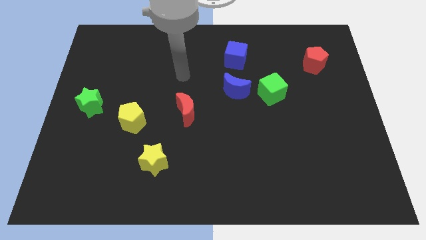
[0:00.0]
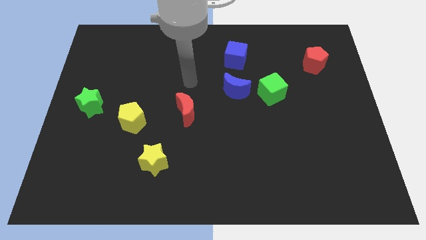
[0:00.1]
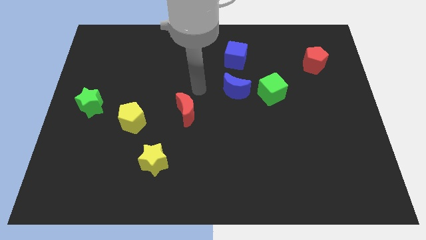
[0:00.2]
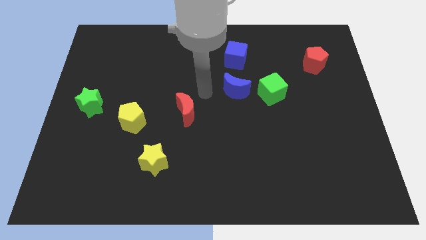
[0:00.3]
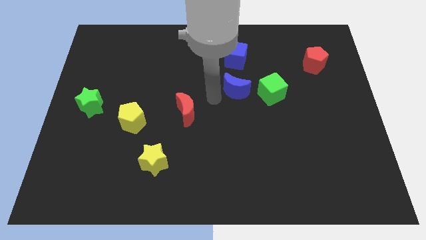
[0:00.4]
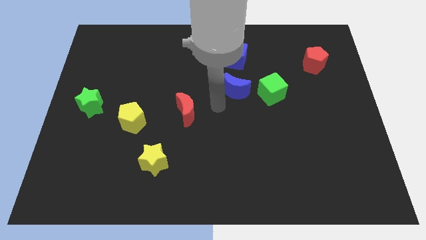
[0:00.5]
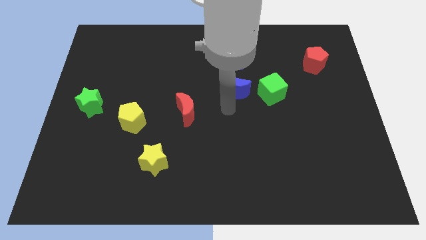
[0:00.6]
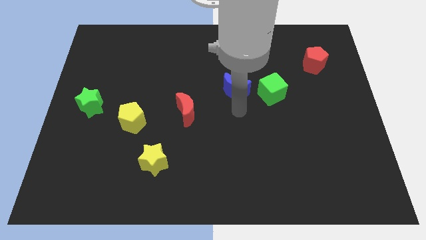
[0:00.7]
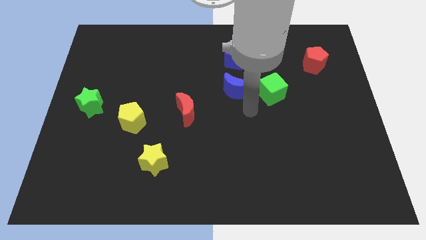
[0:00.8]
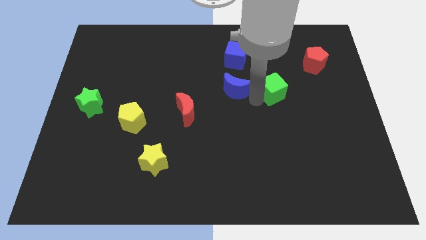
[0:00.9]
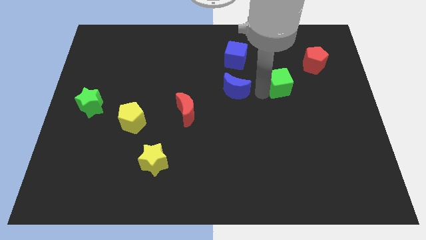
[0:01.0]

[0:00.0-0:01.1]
separate the blue moon from the green cube

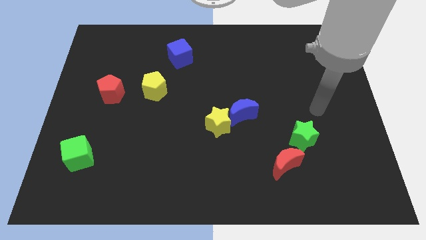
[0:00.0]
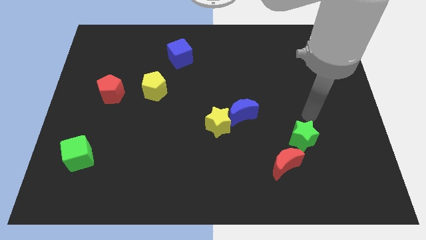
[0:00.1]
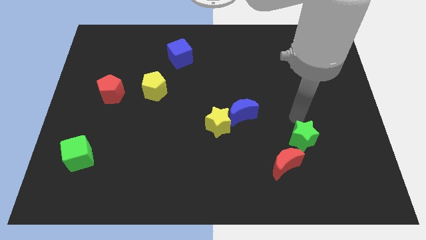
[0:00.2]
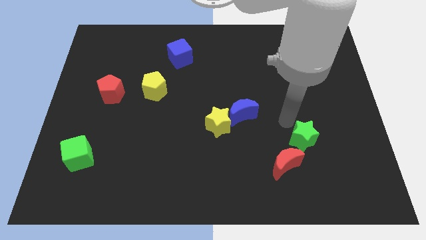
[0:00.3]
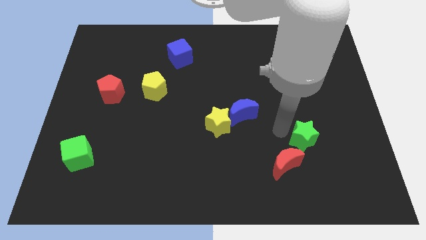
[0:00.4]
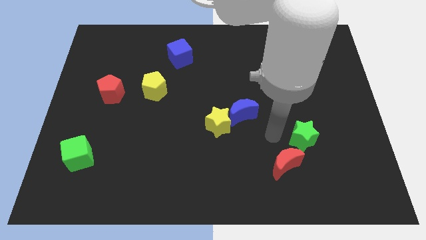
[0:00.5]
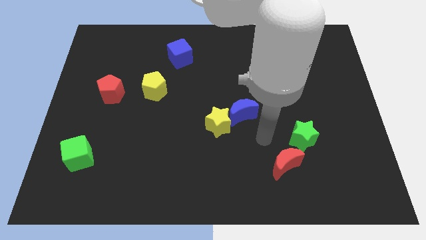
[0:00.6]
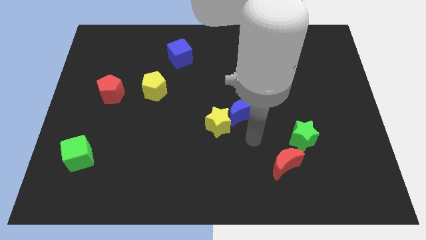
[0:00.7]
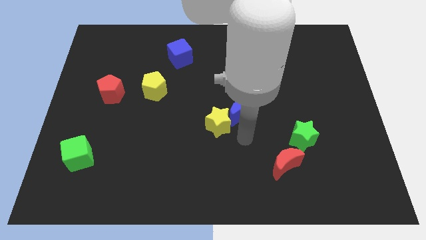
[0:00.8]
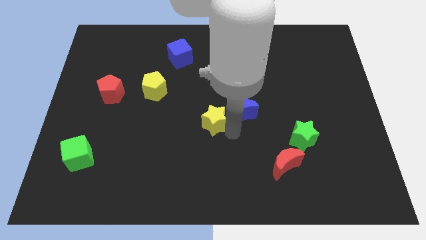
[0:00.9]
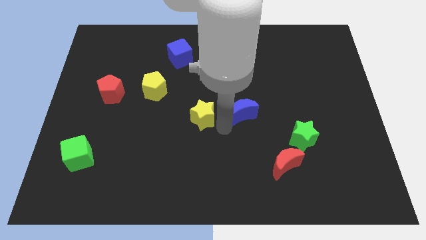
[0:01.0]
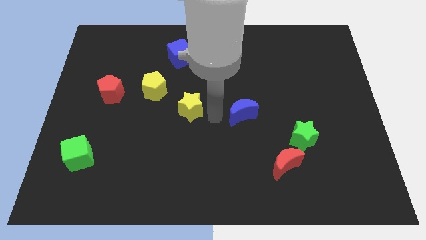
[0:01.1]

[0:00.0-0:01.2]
pull the blue moon apart from the yellow star

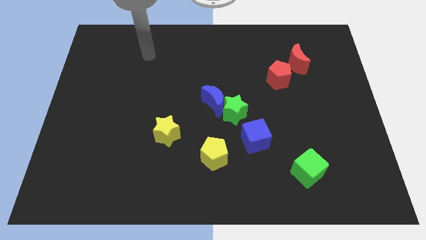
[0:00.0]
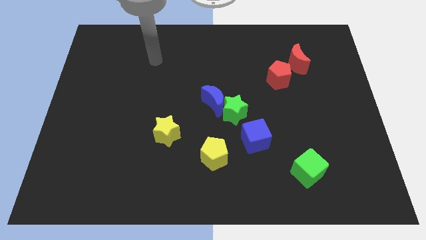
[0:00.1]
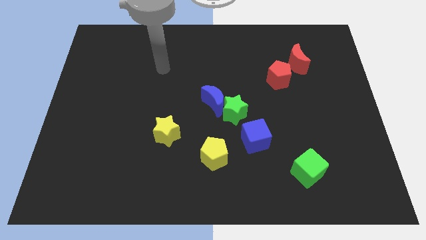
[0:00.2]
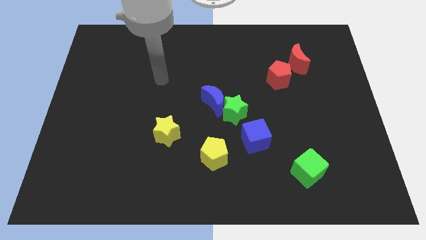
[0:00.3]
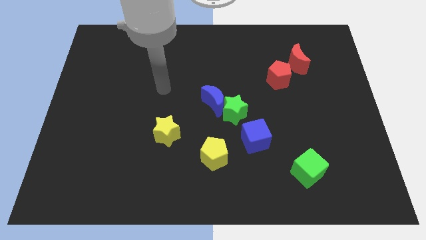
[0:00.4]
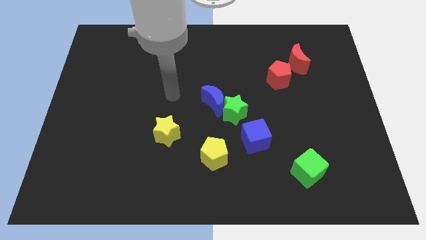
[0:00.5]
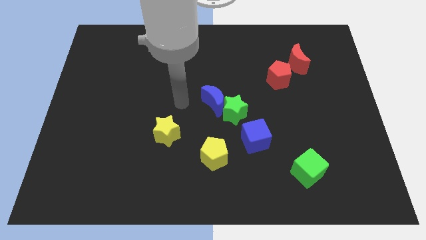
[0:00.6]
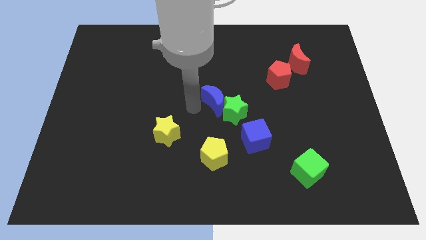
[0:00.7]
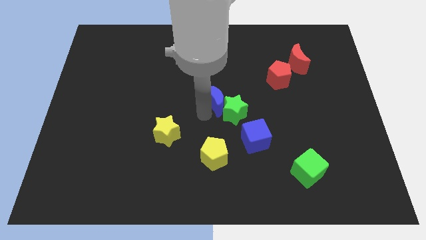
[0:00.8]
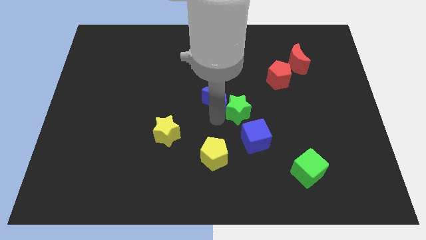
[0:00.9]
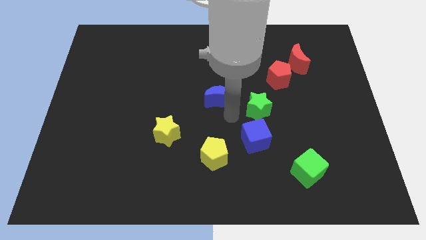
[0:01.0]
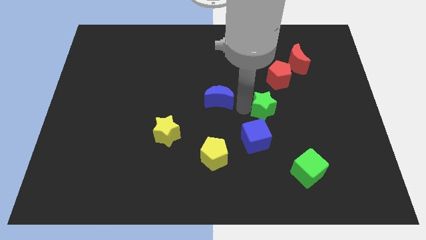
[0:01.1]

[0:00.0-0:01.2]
move the blue moon away from the green star

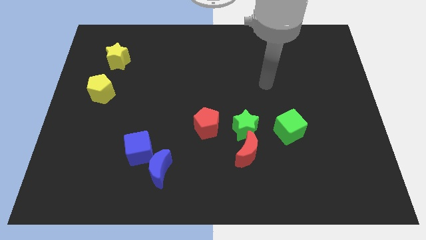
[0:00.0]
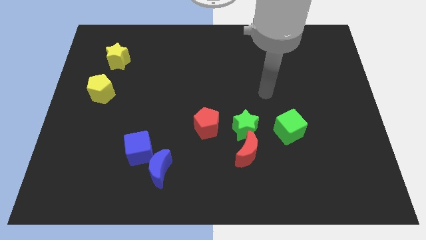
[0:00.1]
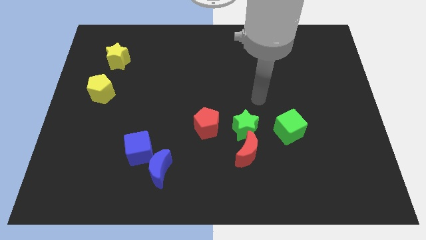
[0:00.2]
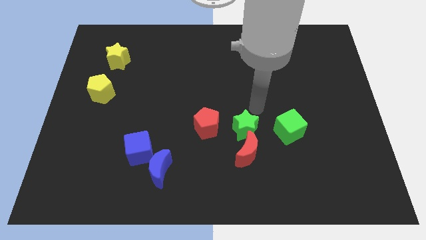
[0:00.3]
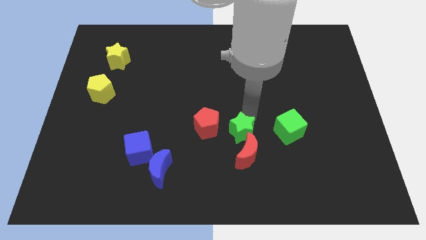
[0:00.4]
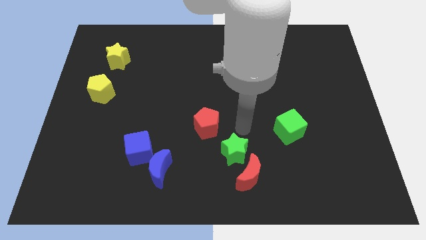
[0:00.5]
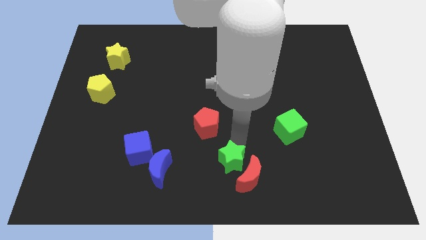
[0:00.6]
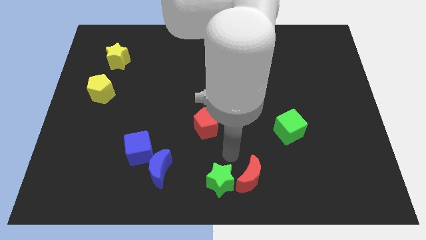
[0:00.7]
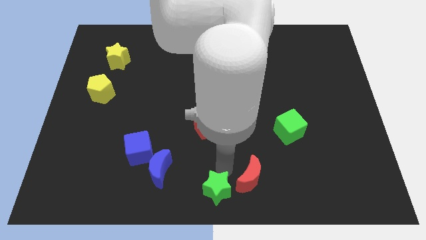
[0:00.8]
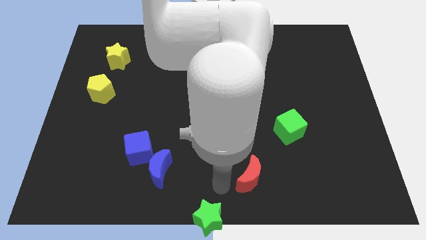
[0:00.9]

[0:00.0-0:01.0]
move the red moon away from the green star

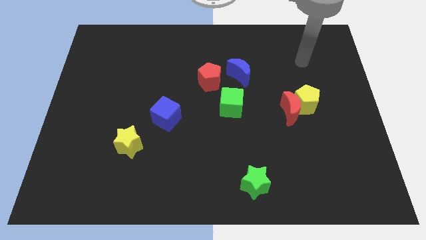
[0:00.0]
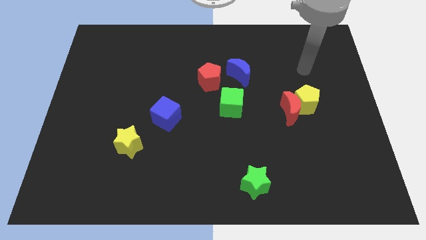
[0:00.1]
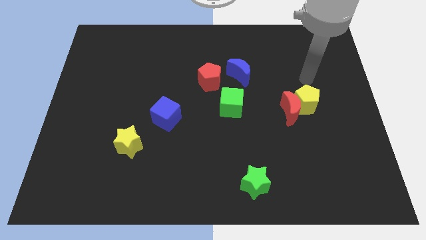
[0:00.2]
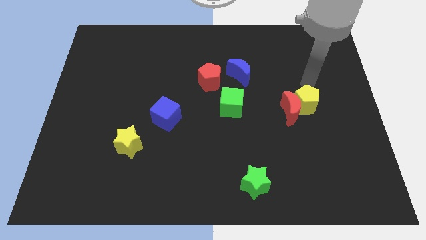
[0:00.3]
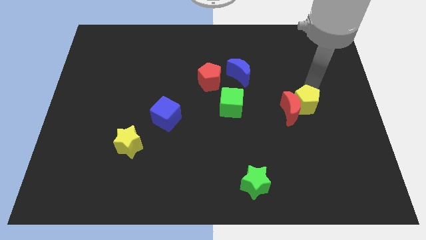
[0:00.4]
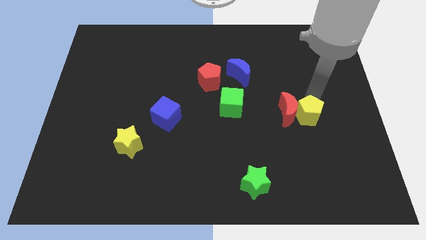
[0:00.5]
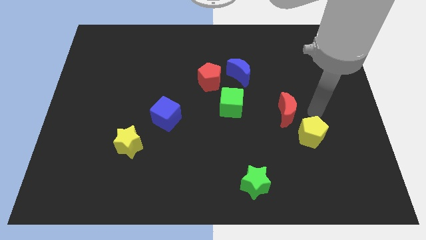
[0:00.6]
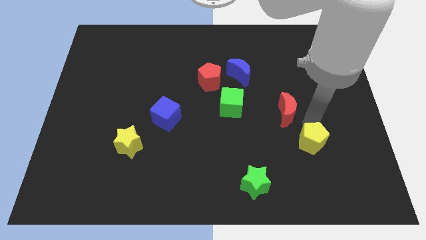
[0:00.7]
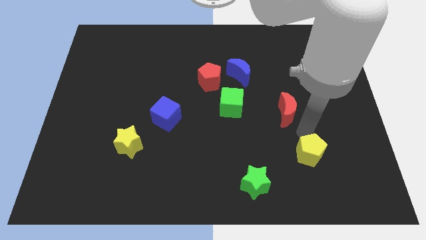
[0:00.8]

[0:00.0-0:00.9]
pull the red moon apart from the yellow pentagon

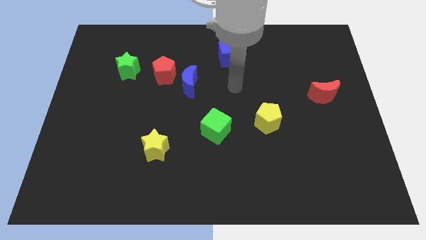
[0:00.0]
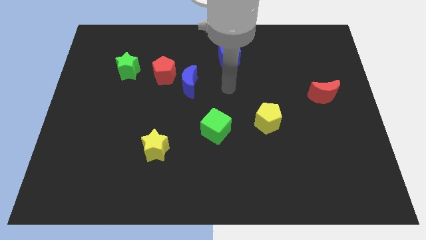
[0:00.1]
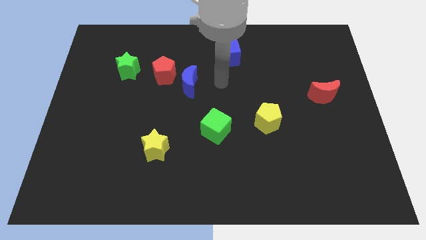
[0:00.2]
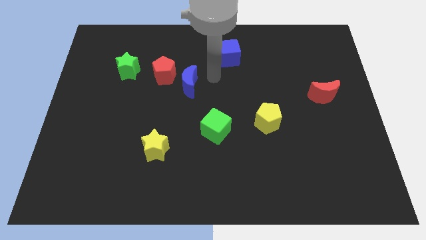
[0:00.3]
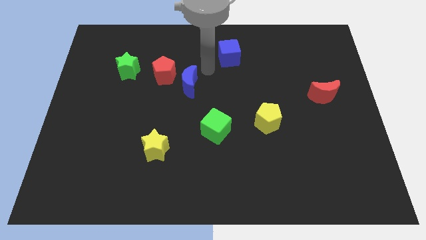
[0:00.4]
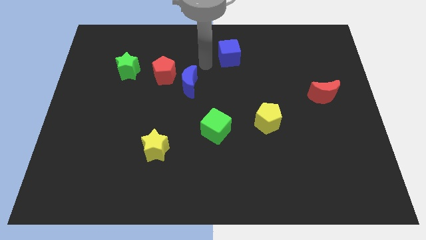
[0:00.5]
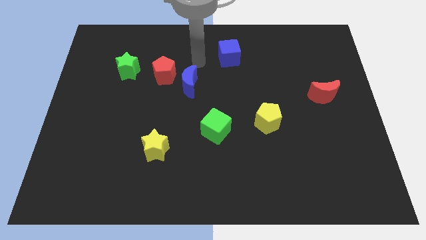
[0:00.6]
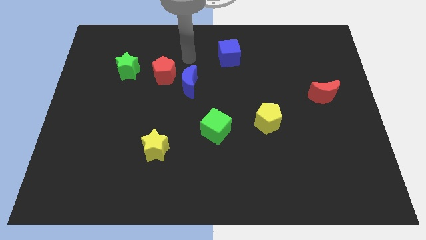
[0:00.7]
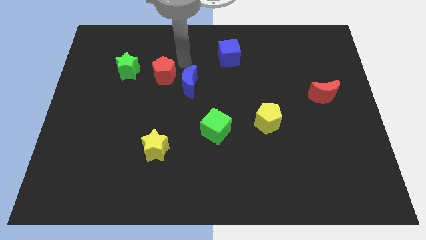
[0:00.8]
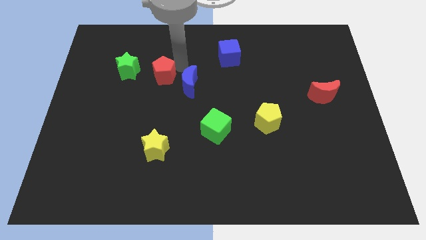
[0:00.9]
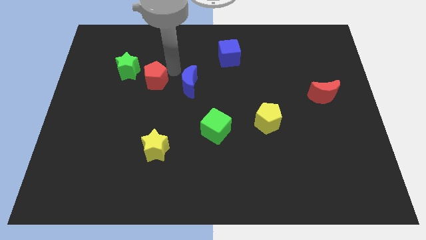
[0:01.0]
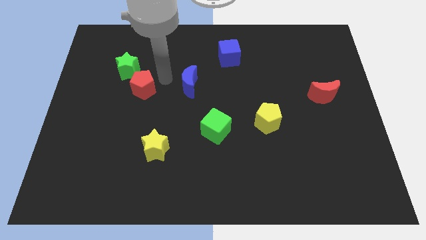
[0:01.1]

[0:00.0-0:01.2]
pull the blue moon apart from the red pentagon

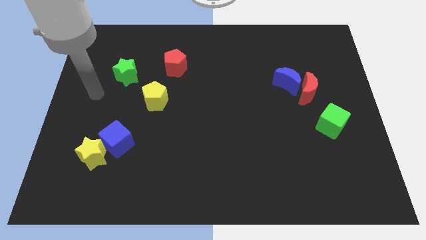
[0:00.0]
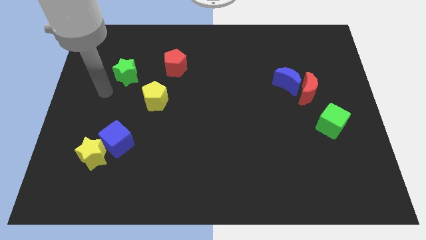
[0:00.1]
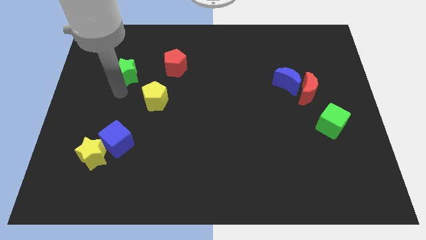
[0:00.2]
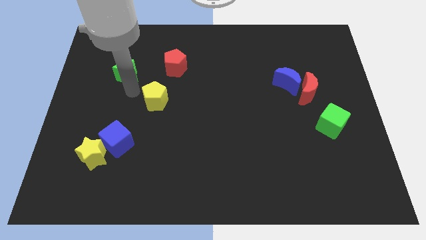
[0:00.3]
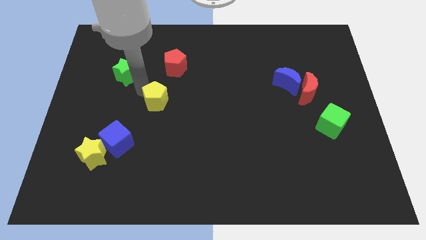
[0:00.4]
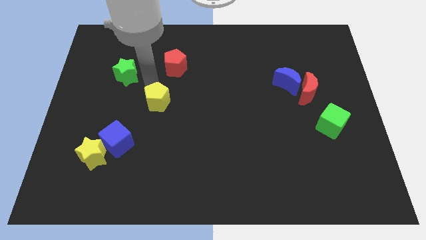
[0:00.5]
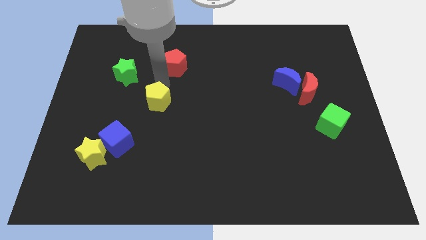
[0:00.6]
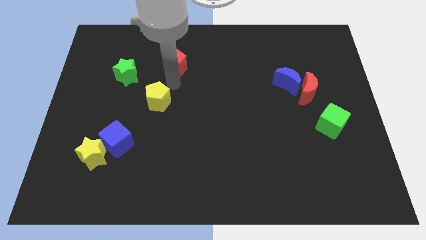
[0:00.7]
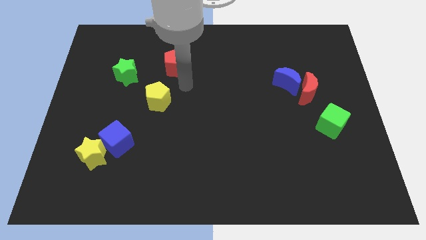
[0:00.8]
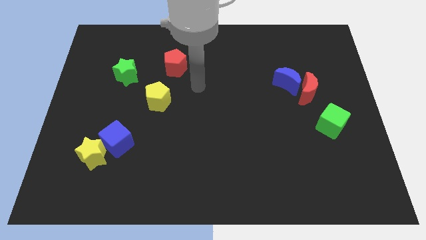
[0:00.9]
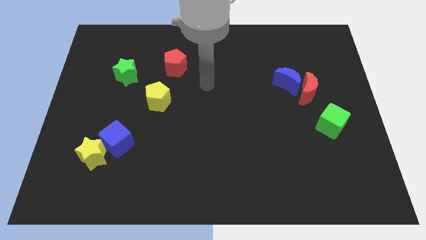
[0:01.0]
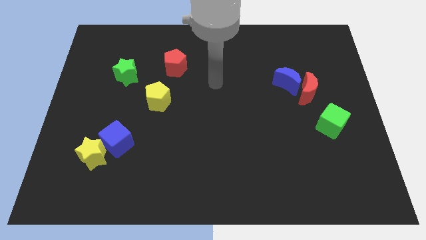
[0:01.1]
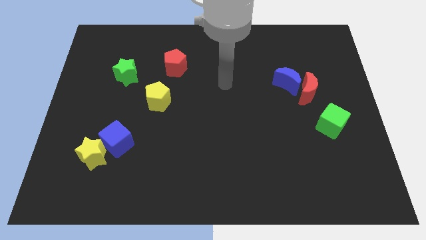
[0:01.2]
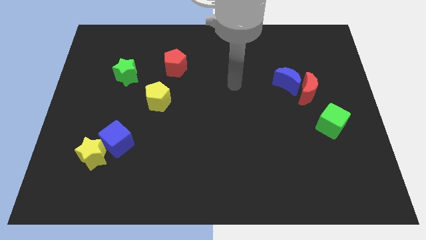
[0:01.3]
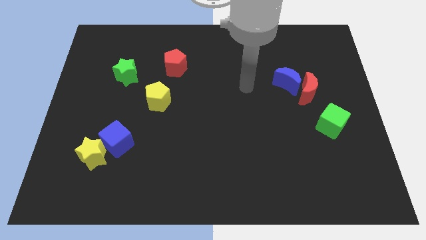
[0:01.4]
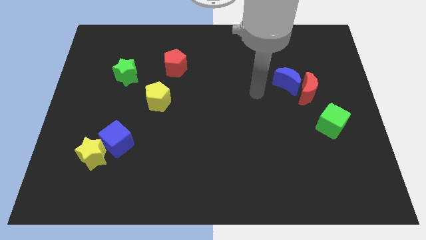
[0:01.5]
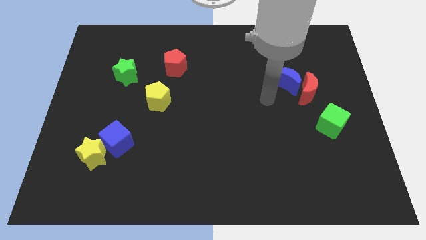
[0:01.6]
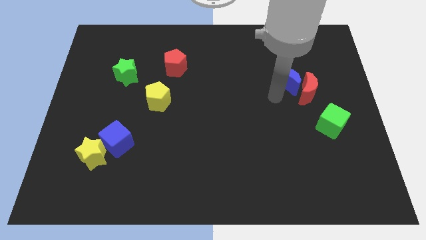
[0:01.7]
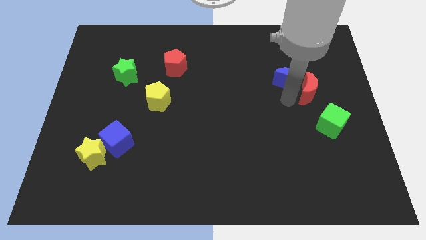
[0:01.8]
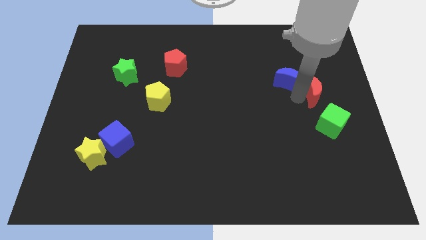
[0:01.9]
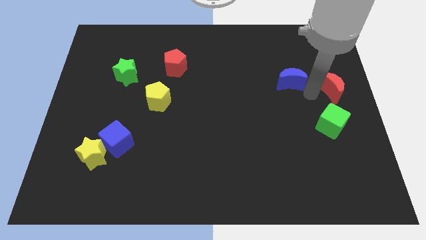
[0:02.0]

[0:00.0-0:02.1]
separate the blue moon from the red moon

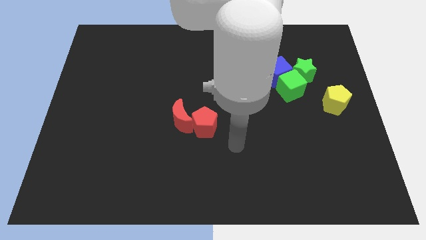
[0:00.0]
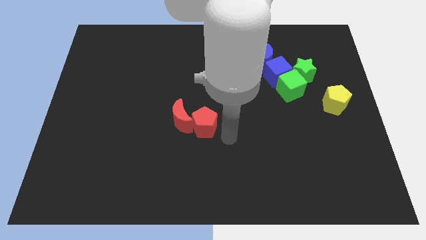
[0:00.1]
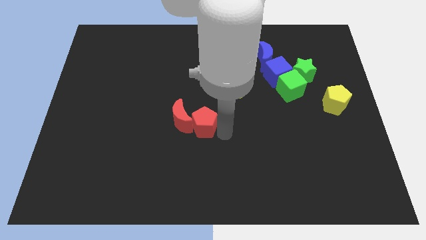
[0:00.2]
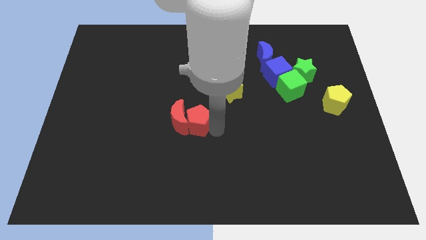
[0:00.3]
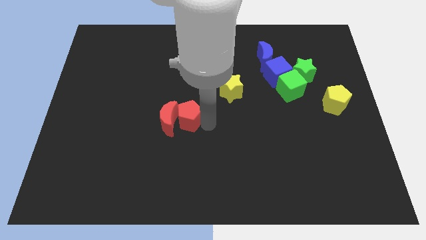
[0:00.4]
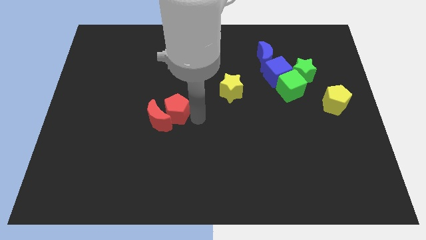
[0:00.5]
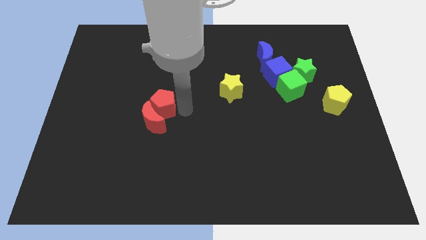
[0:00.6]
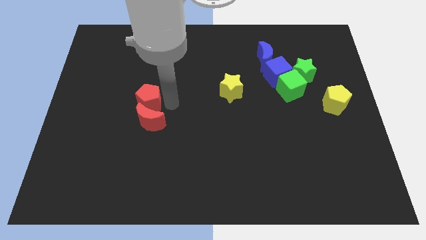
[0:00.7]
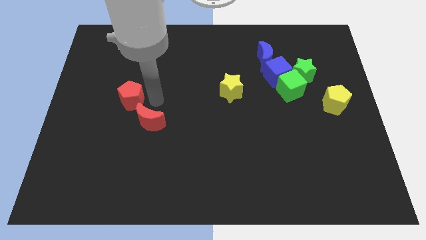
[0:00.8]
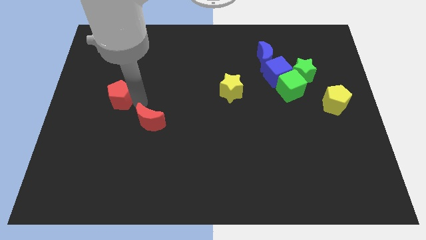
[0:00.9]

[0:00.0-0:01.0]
separate the red moon from the red pentagon
